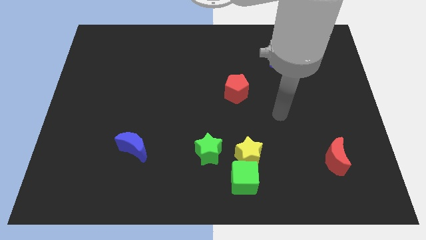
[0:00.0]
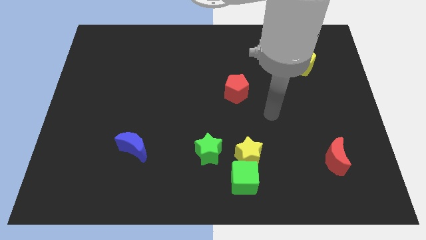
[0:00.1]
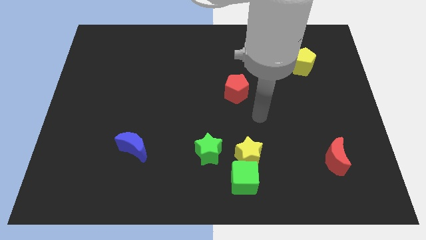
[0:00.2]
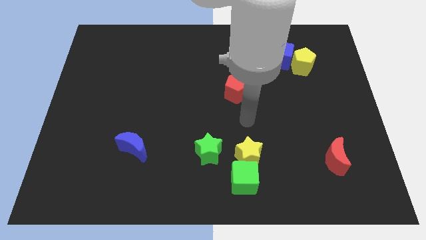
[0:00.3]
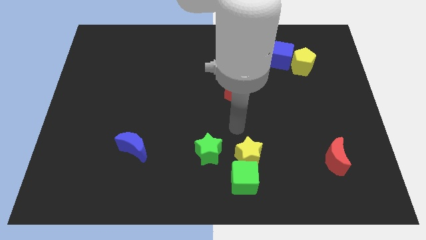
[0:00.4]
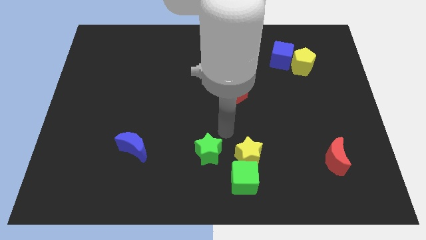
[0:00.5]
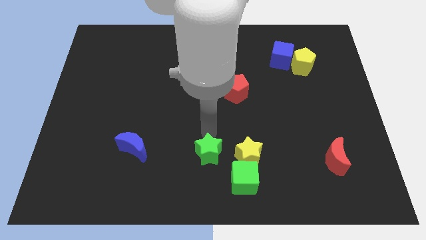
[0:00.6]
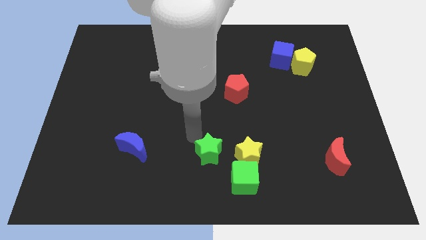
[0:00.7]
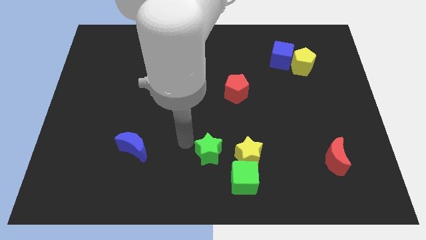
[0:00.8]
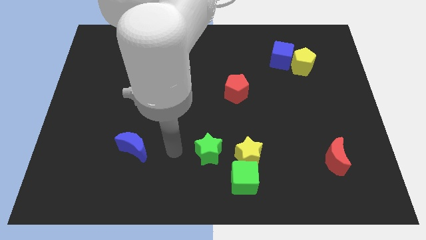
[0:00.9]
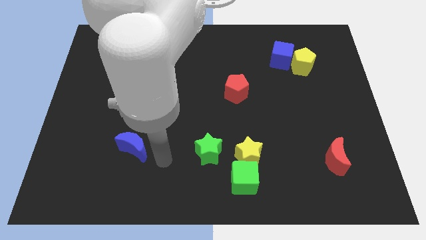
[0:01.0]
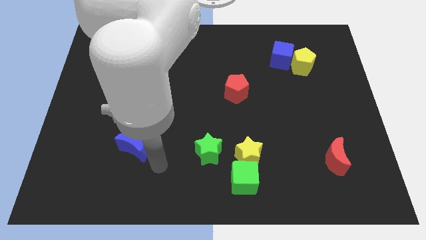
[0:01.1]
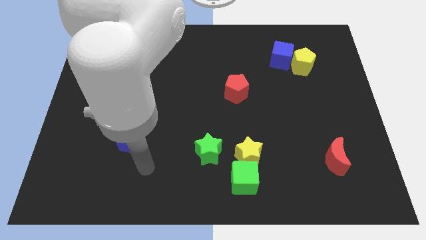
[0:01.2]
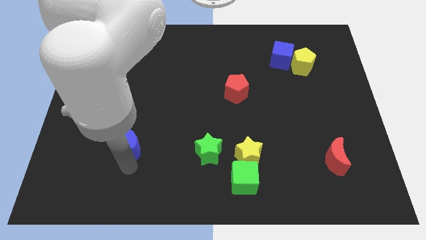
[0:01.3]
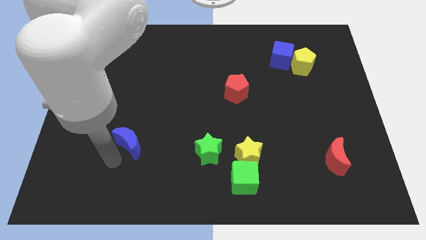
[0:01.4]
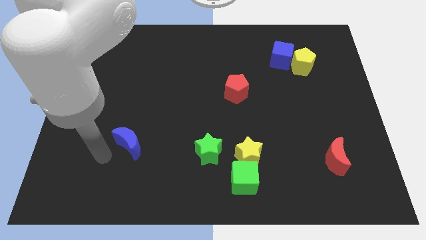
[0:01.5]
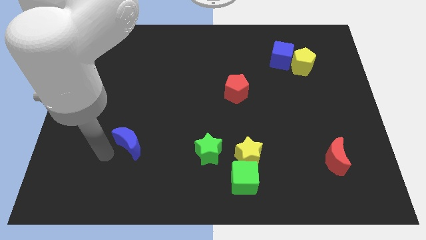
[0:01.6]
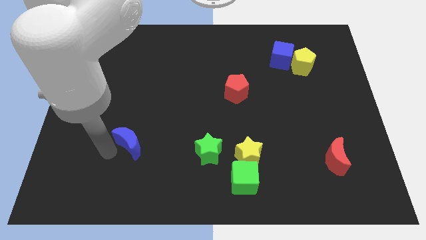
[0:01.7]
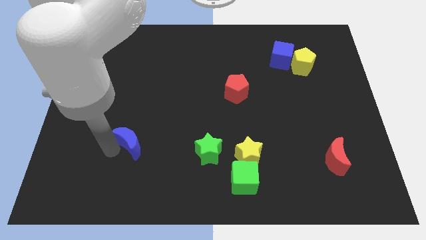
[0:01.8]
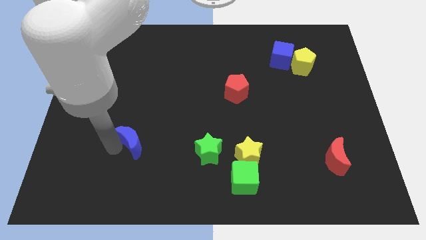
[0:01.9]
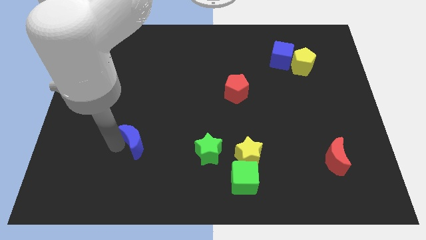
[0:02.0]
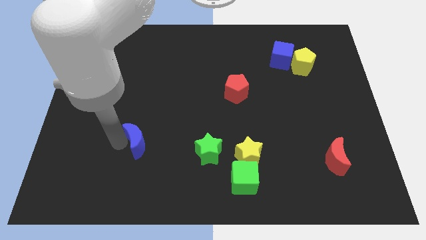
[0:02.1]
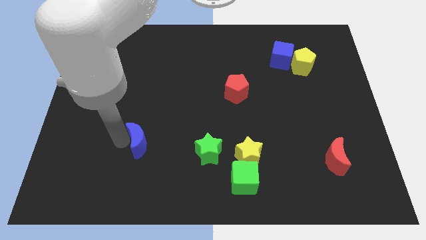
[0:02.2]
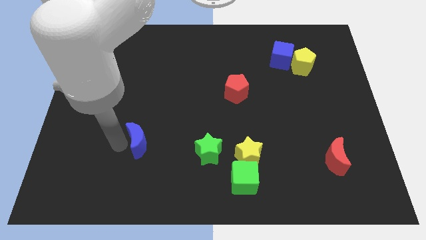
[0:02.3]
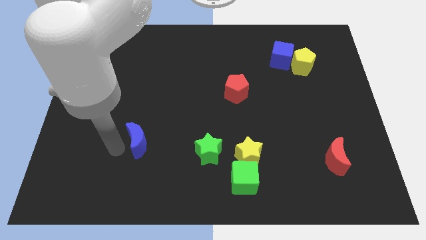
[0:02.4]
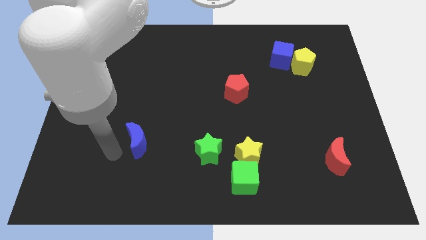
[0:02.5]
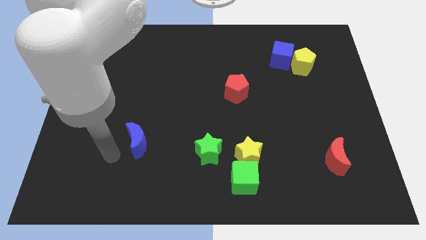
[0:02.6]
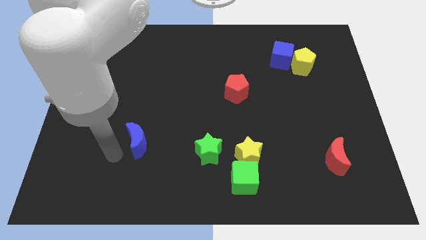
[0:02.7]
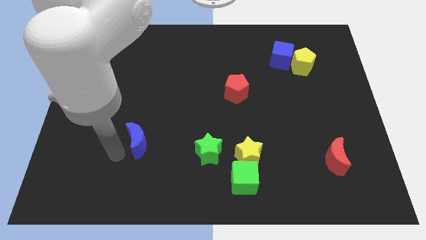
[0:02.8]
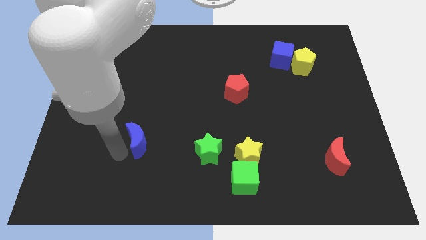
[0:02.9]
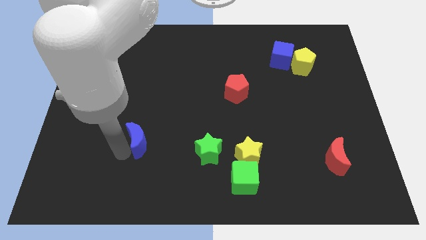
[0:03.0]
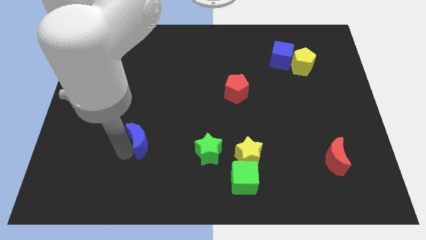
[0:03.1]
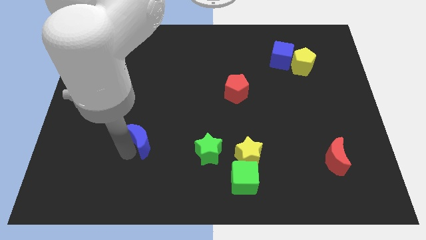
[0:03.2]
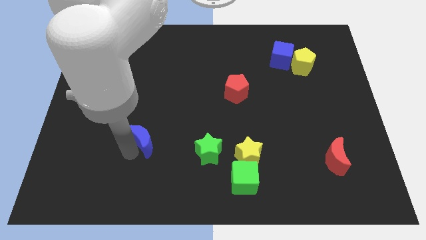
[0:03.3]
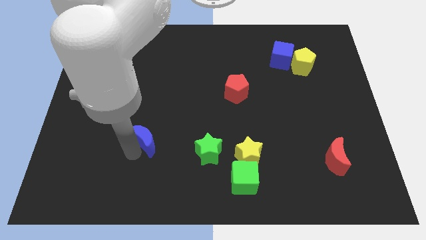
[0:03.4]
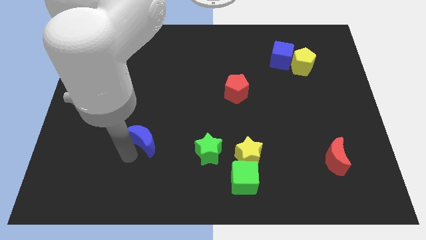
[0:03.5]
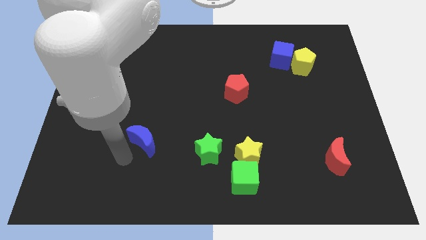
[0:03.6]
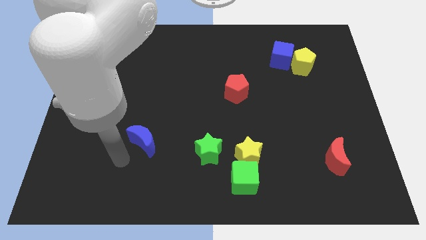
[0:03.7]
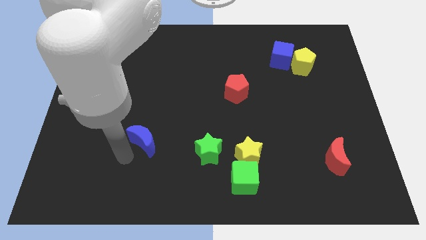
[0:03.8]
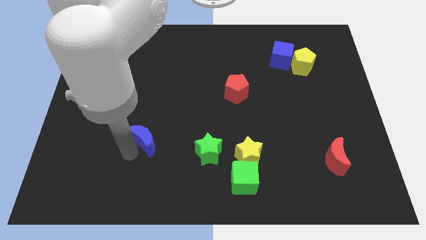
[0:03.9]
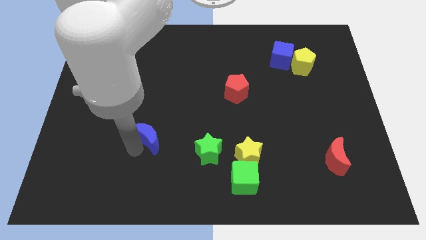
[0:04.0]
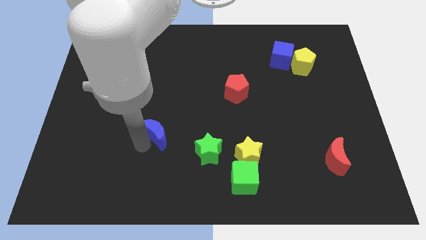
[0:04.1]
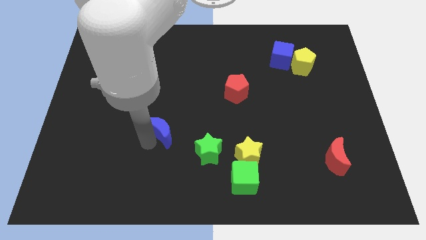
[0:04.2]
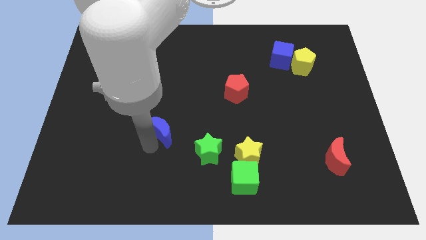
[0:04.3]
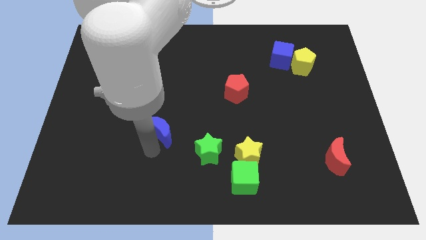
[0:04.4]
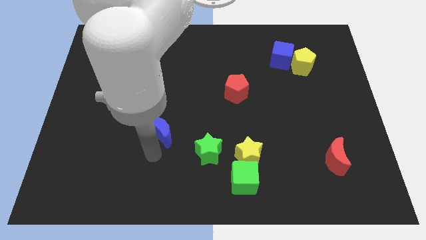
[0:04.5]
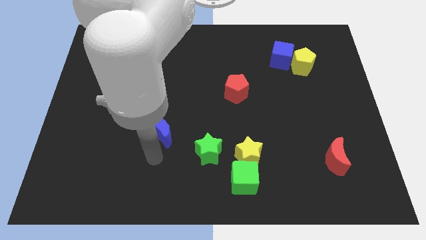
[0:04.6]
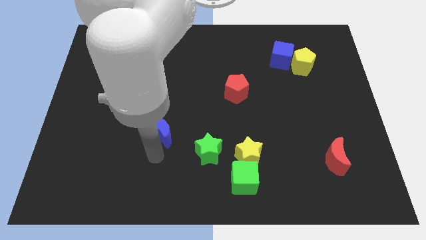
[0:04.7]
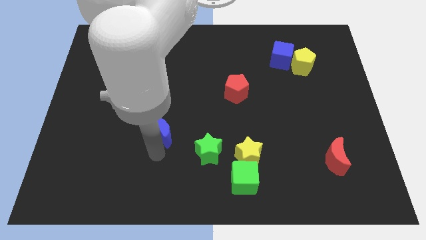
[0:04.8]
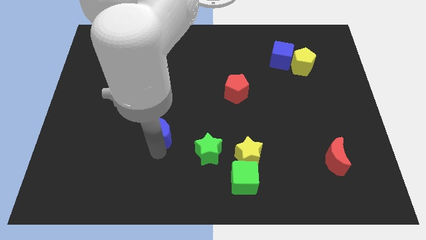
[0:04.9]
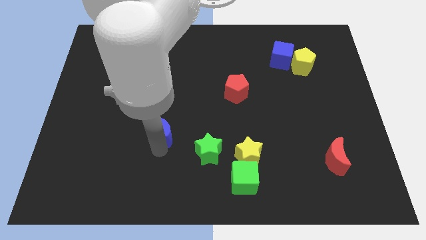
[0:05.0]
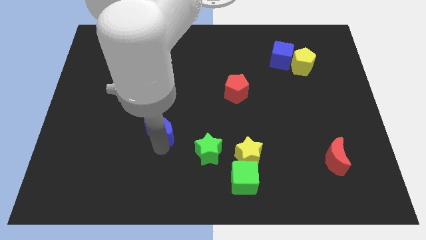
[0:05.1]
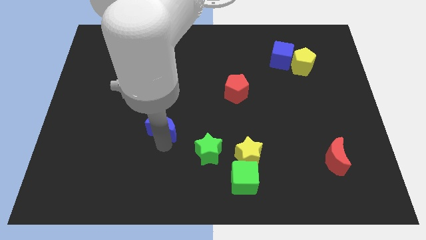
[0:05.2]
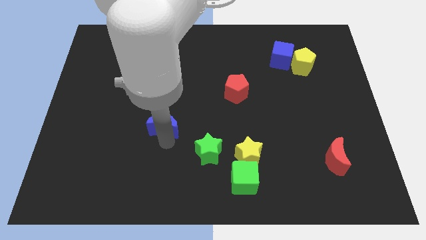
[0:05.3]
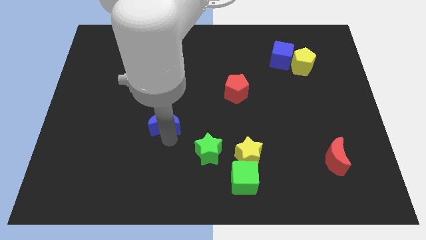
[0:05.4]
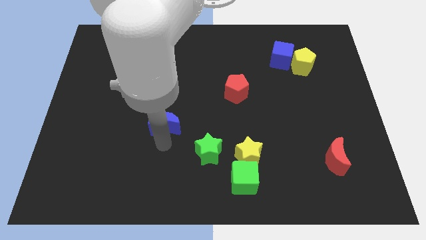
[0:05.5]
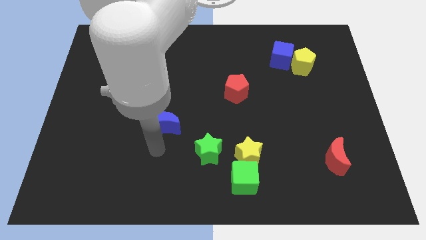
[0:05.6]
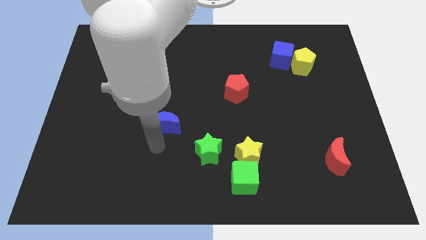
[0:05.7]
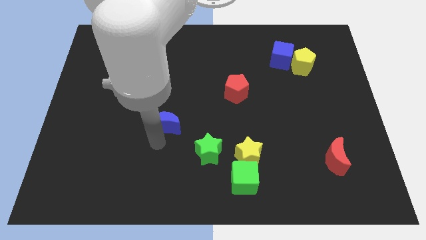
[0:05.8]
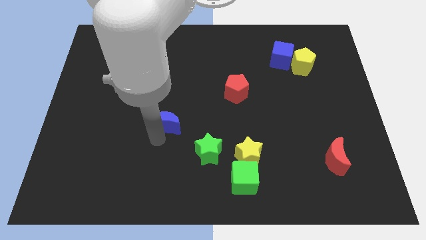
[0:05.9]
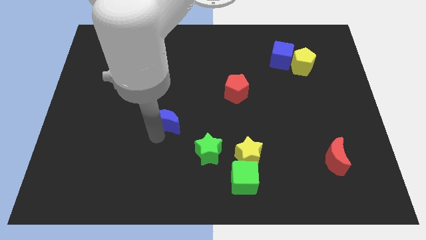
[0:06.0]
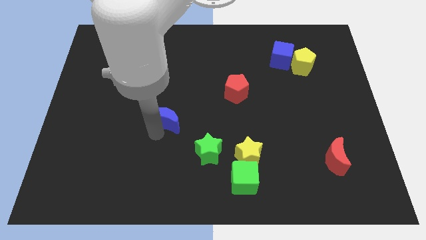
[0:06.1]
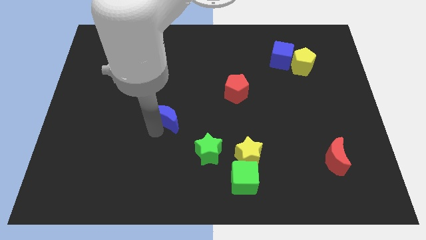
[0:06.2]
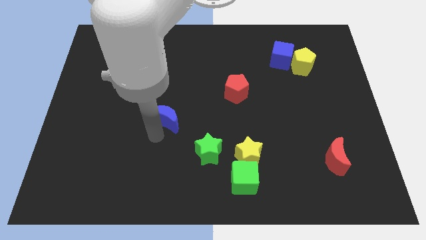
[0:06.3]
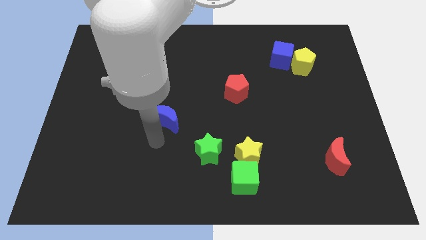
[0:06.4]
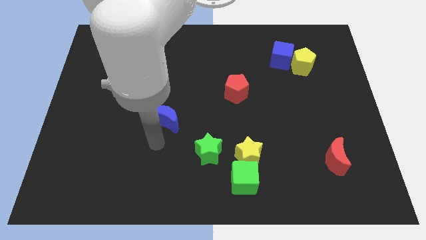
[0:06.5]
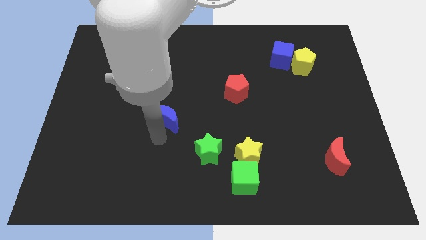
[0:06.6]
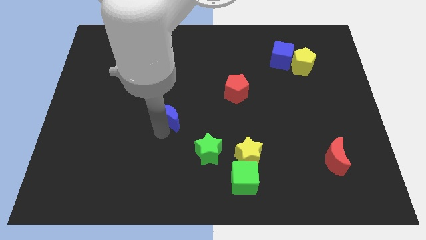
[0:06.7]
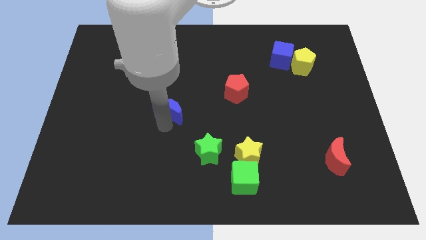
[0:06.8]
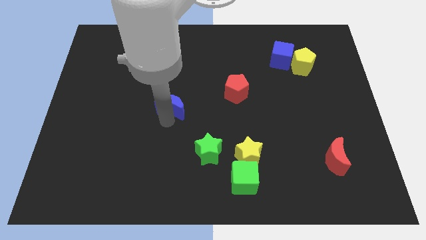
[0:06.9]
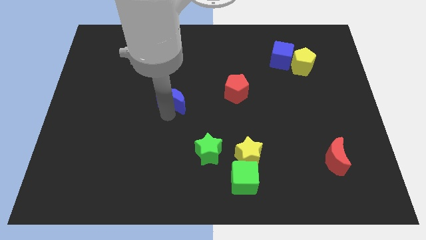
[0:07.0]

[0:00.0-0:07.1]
slide the blue moon left of the red pentagon

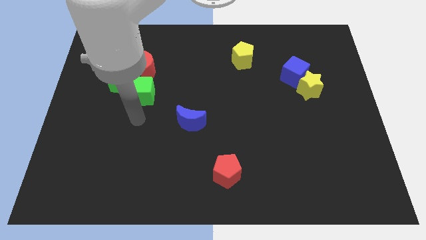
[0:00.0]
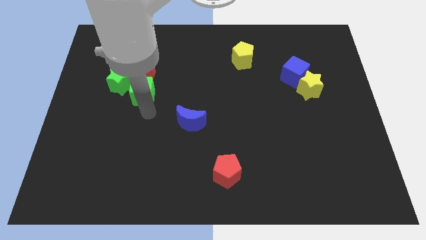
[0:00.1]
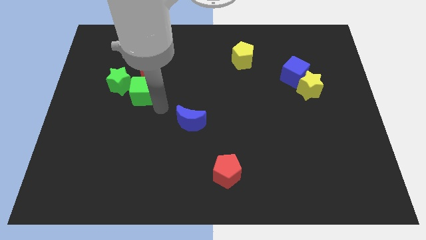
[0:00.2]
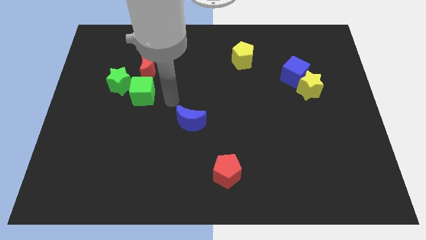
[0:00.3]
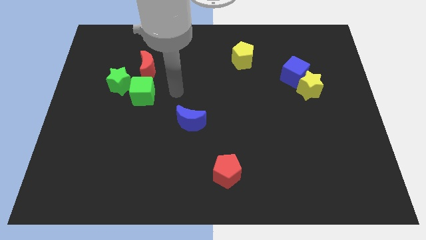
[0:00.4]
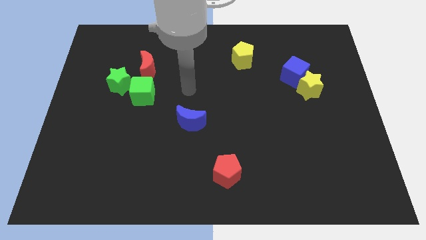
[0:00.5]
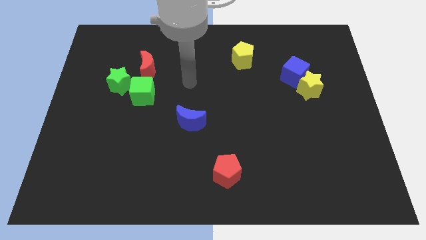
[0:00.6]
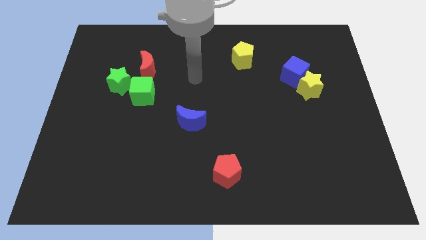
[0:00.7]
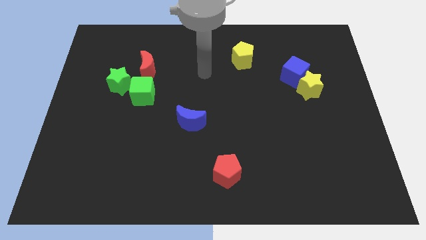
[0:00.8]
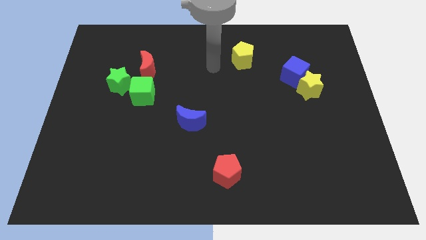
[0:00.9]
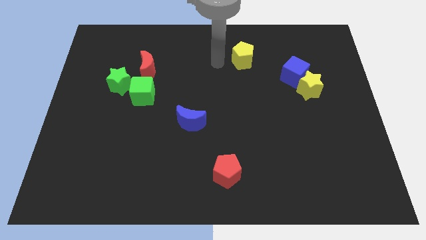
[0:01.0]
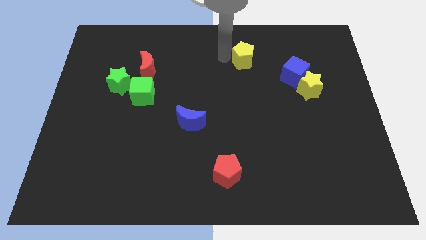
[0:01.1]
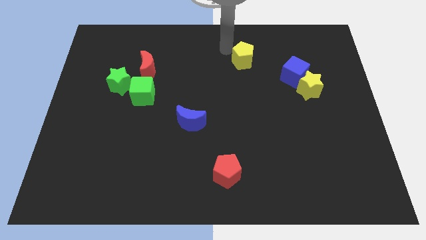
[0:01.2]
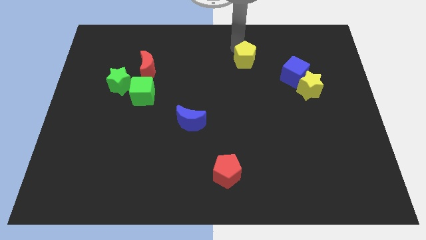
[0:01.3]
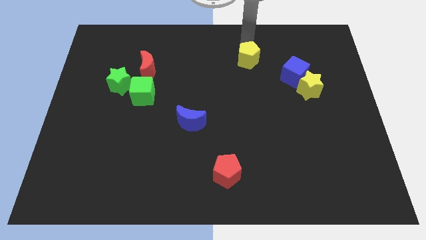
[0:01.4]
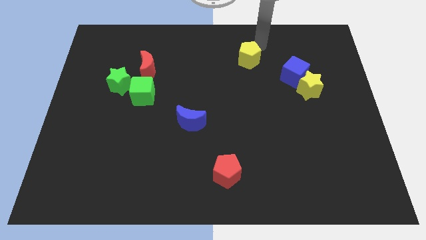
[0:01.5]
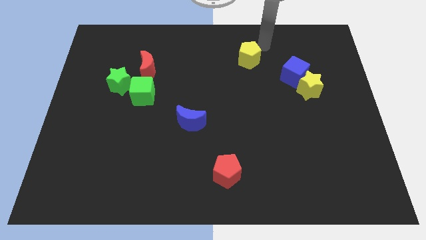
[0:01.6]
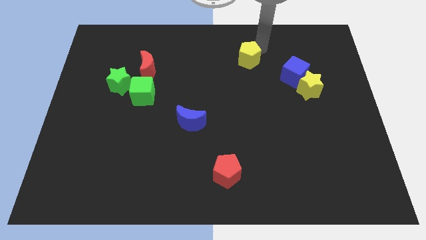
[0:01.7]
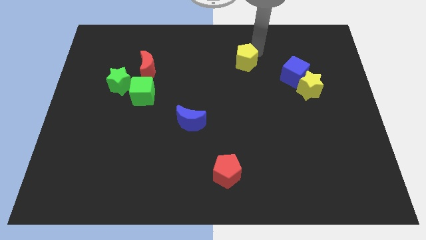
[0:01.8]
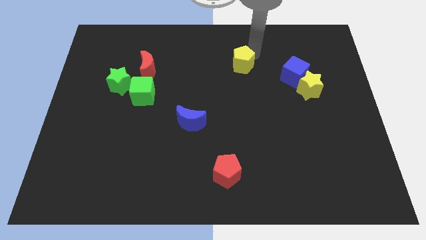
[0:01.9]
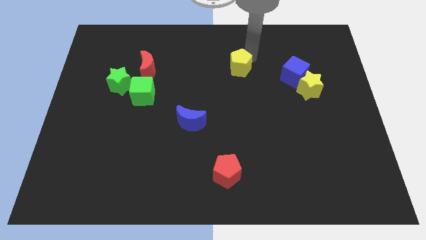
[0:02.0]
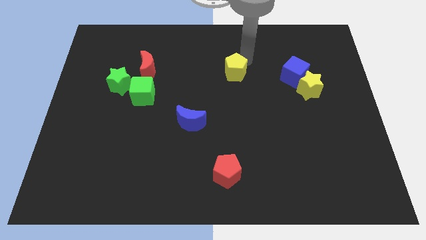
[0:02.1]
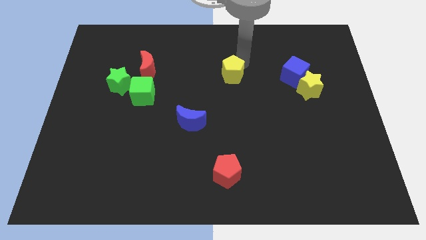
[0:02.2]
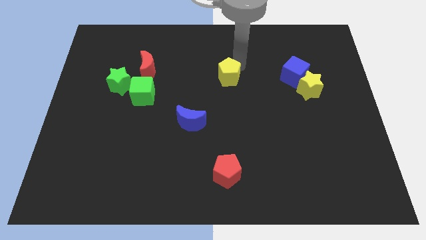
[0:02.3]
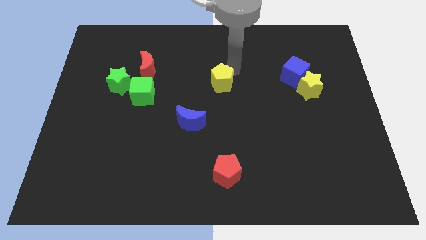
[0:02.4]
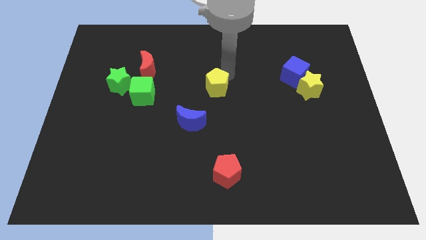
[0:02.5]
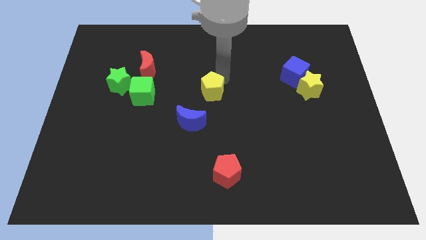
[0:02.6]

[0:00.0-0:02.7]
move the yellow pentagon to the top right of the blue moon
